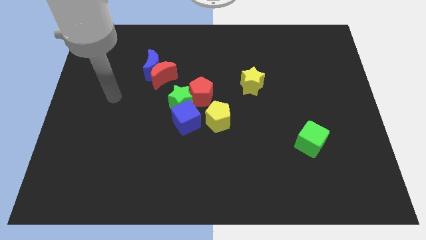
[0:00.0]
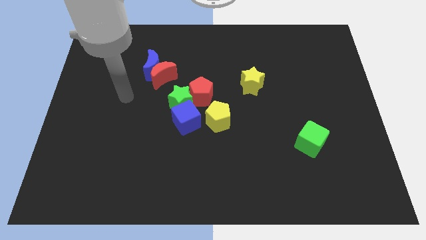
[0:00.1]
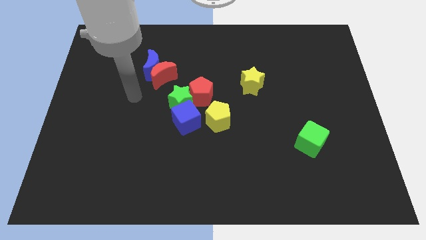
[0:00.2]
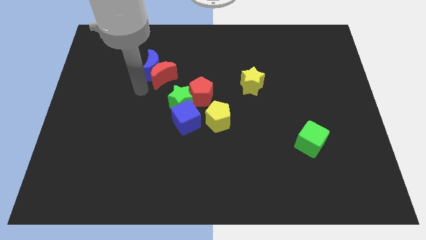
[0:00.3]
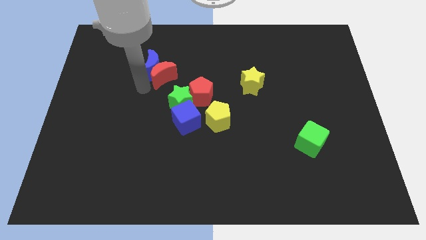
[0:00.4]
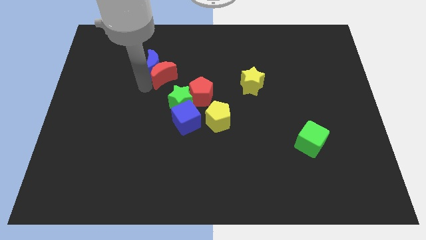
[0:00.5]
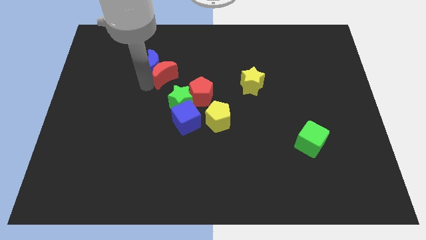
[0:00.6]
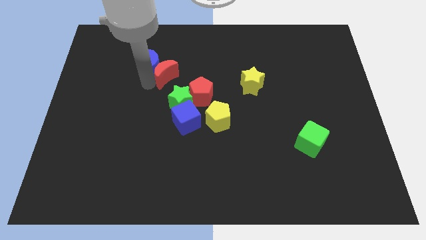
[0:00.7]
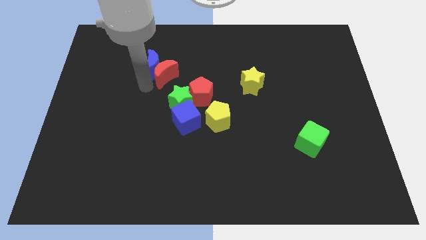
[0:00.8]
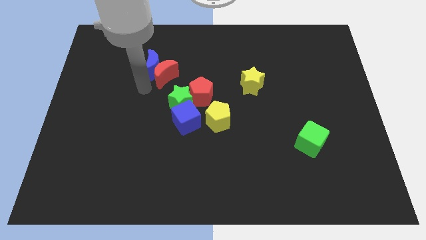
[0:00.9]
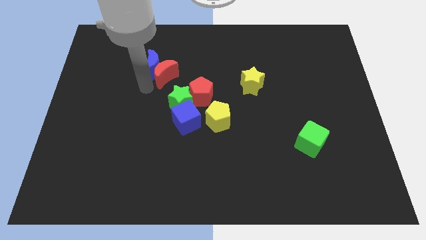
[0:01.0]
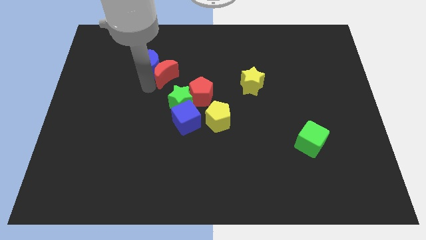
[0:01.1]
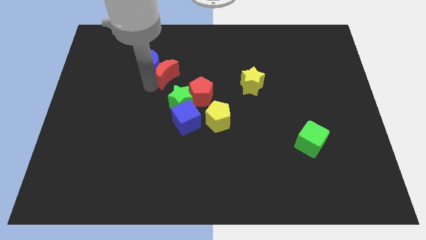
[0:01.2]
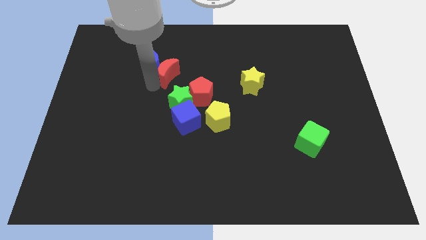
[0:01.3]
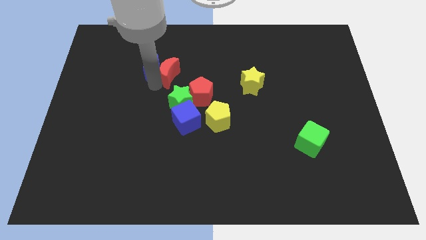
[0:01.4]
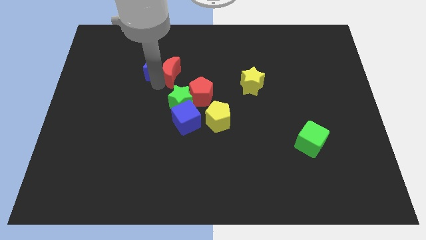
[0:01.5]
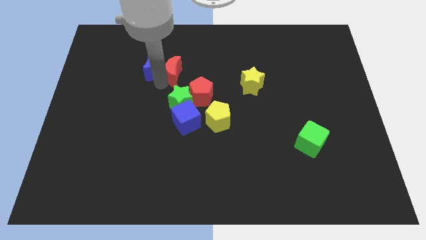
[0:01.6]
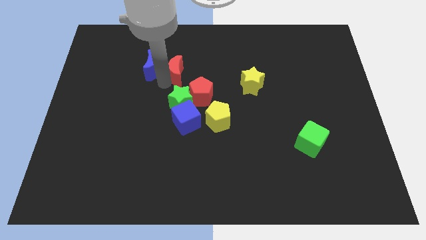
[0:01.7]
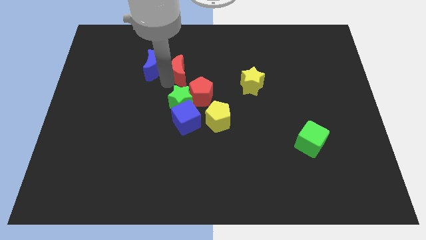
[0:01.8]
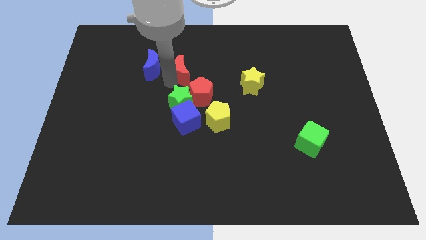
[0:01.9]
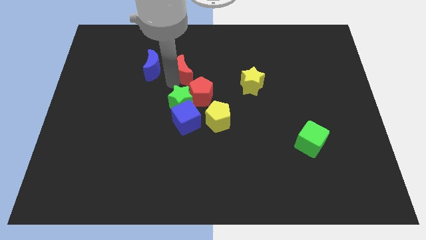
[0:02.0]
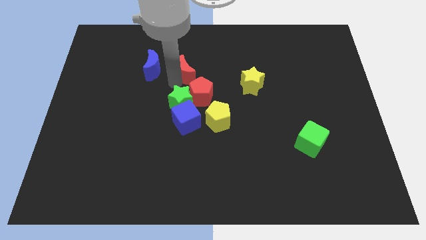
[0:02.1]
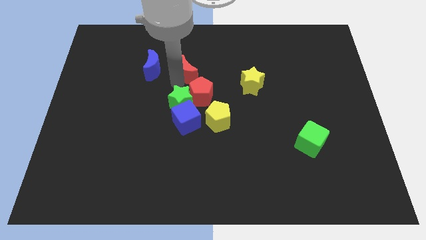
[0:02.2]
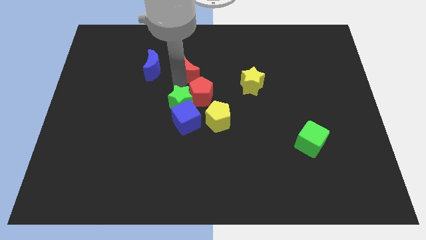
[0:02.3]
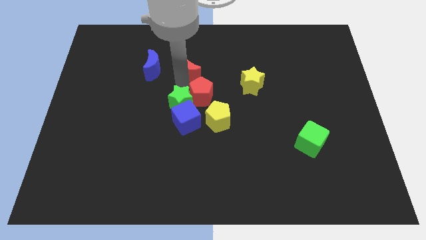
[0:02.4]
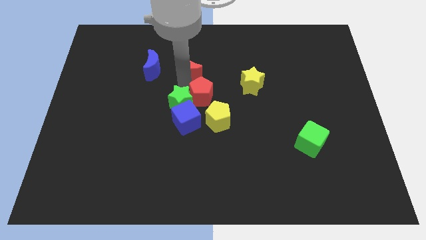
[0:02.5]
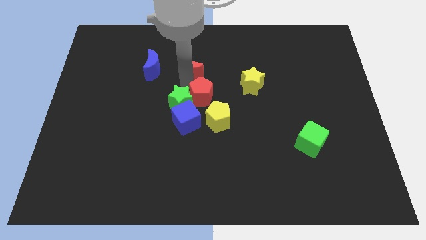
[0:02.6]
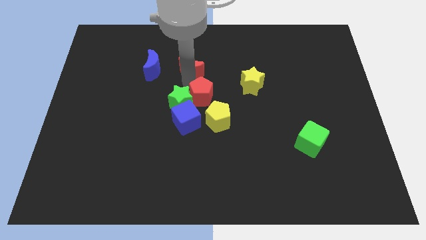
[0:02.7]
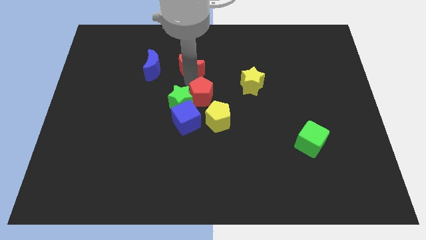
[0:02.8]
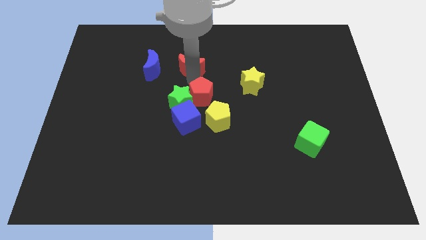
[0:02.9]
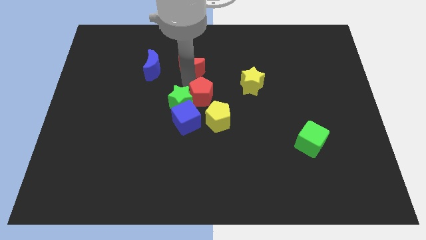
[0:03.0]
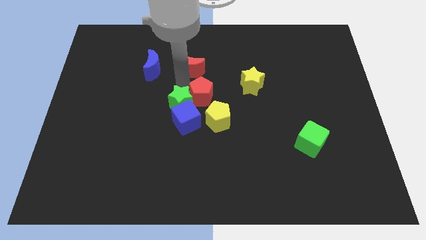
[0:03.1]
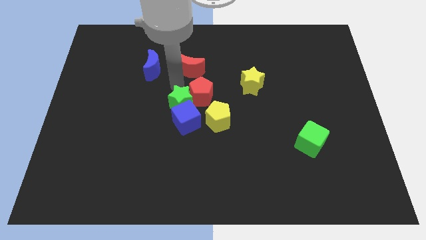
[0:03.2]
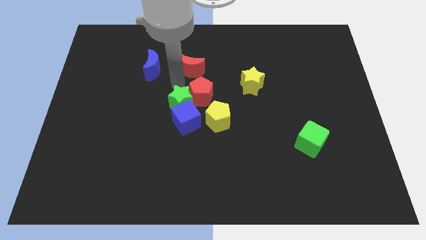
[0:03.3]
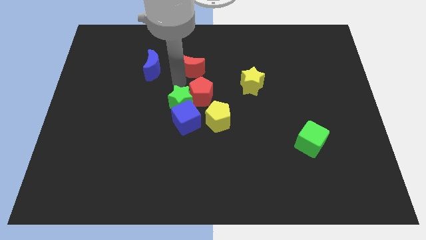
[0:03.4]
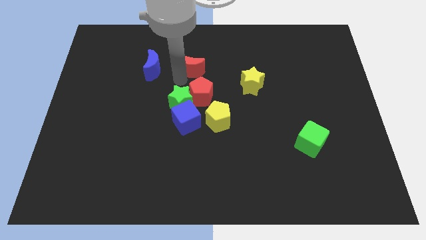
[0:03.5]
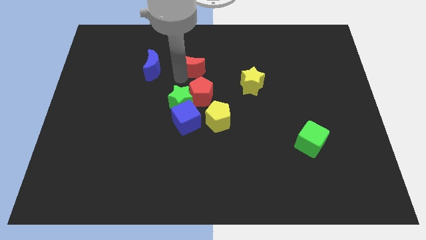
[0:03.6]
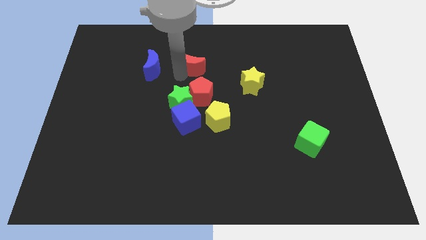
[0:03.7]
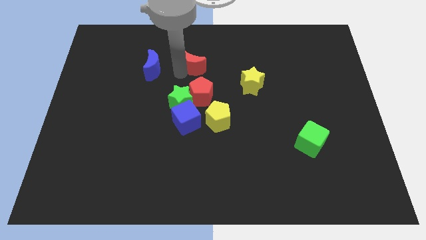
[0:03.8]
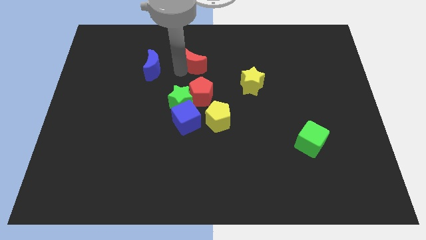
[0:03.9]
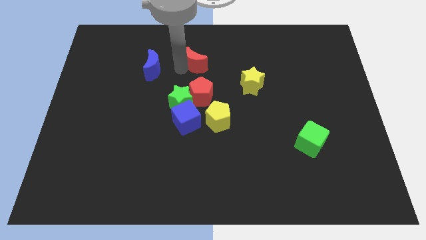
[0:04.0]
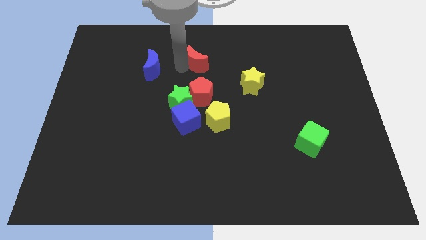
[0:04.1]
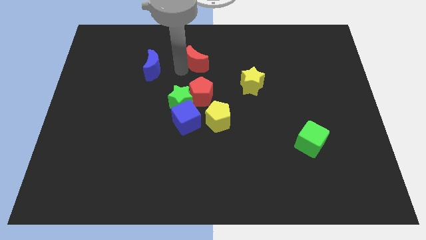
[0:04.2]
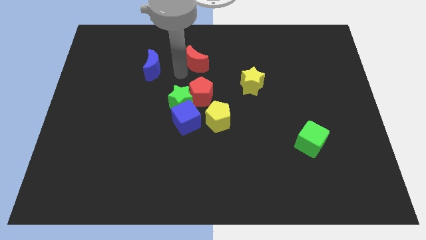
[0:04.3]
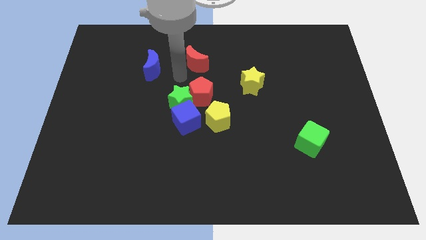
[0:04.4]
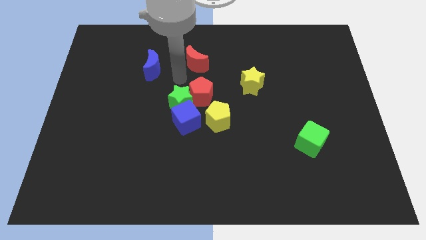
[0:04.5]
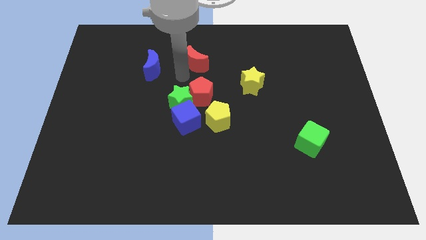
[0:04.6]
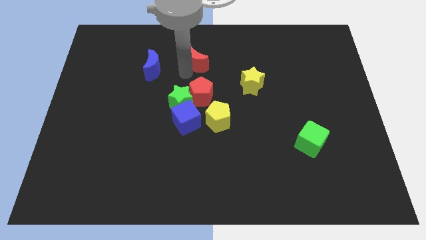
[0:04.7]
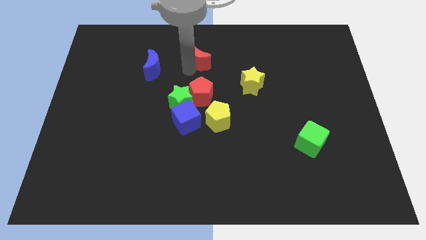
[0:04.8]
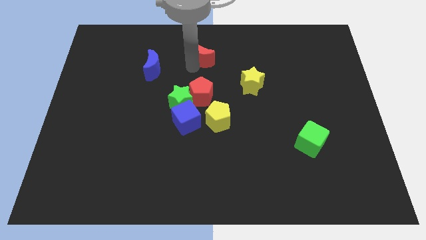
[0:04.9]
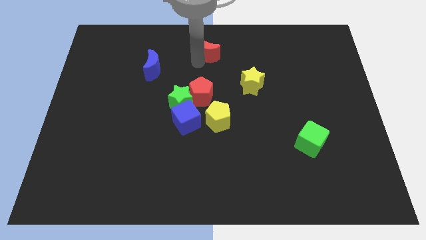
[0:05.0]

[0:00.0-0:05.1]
move the red moon to the top

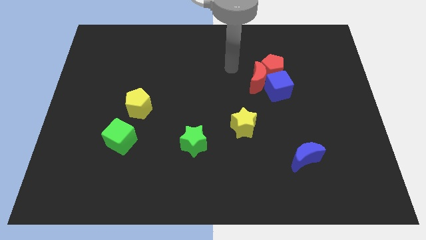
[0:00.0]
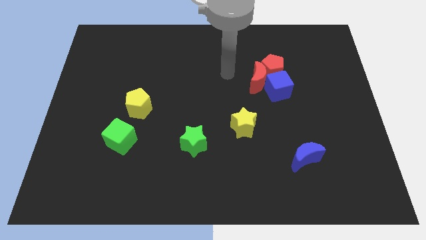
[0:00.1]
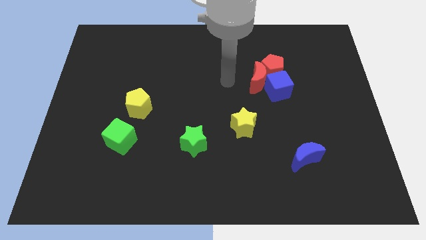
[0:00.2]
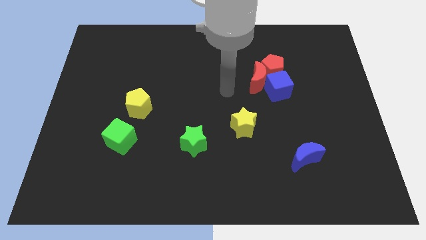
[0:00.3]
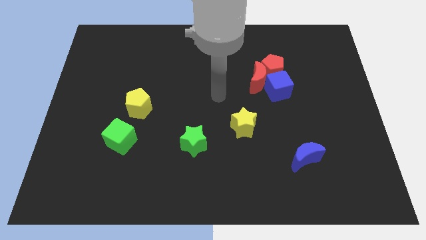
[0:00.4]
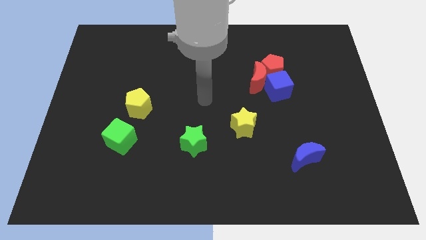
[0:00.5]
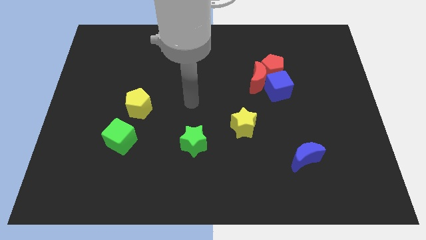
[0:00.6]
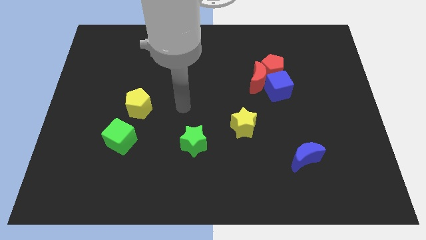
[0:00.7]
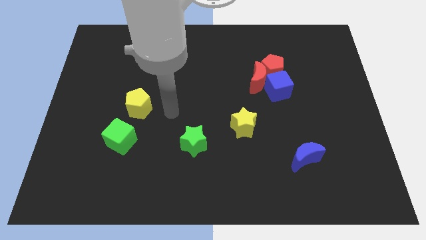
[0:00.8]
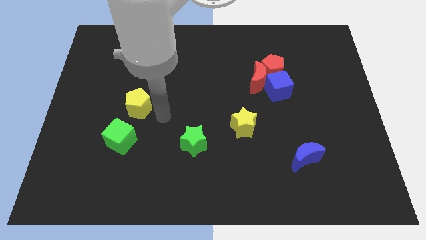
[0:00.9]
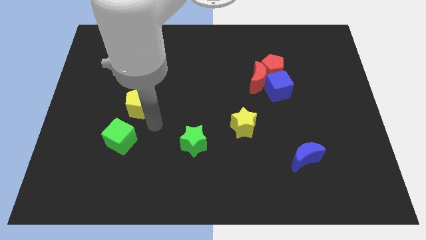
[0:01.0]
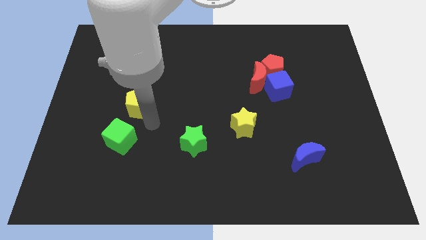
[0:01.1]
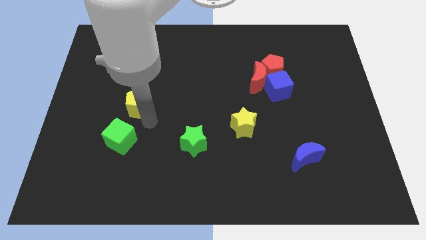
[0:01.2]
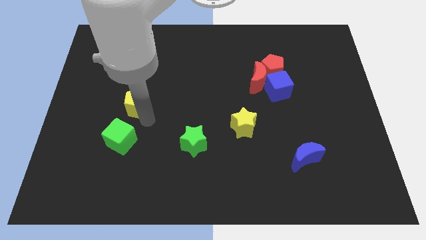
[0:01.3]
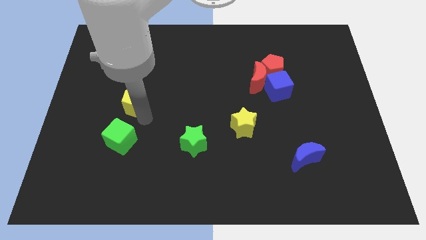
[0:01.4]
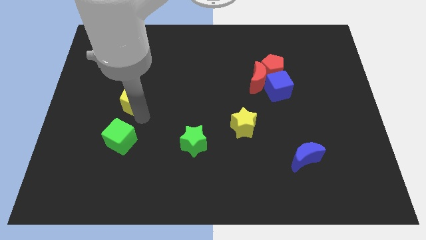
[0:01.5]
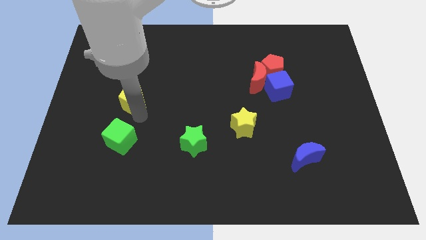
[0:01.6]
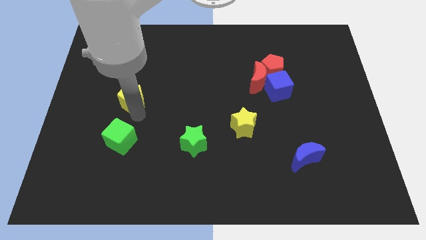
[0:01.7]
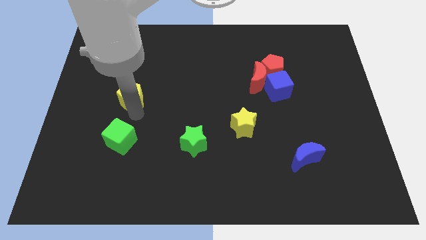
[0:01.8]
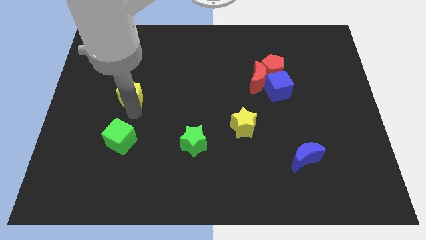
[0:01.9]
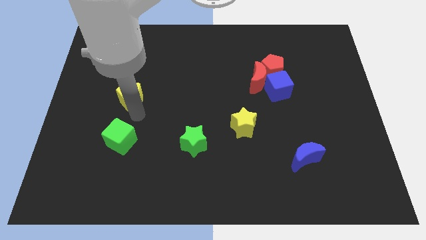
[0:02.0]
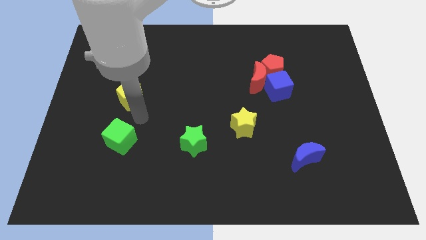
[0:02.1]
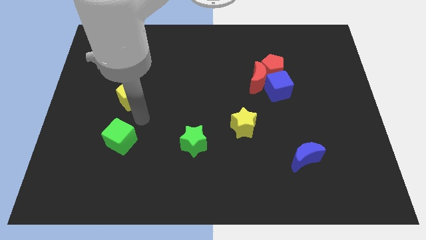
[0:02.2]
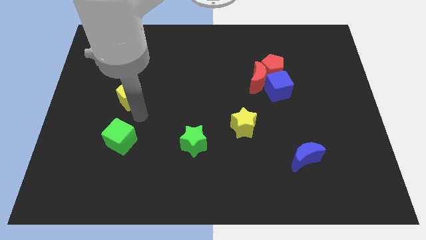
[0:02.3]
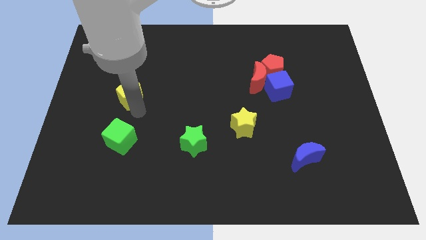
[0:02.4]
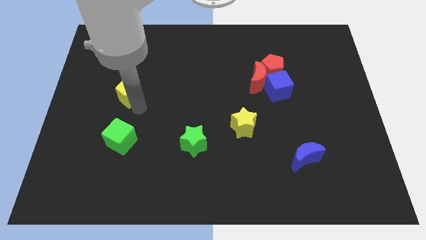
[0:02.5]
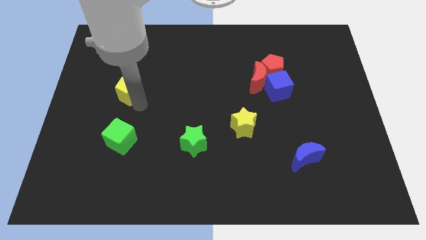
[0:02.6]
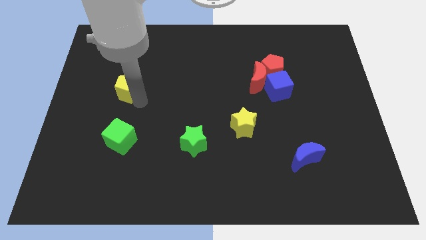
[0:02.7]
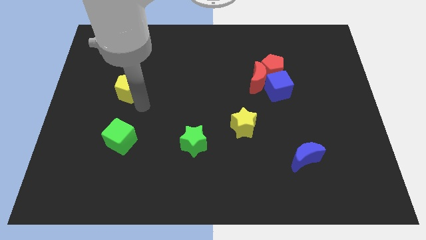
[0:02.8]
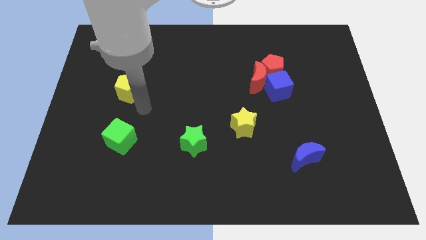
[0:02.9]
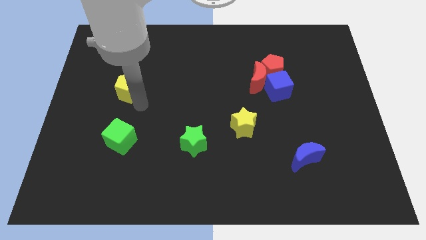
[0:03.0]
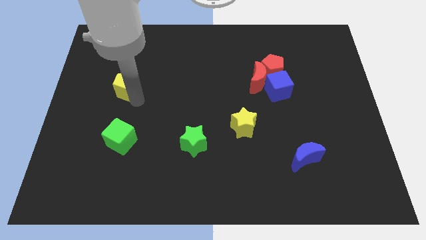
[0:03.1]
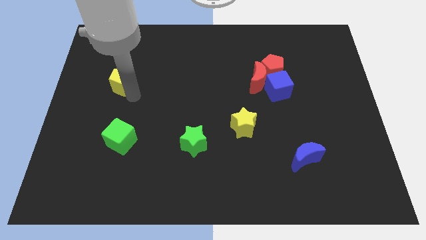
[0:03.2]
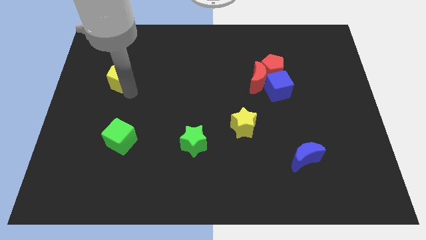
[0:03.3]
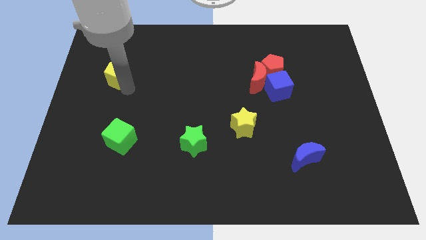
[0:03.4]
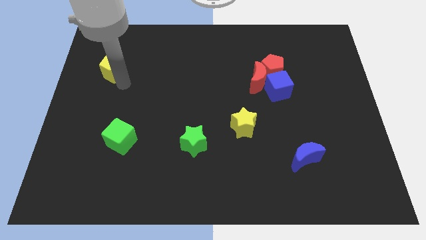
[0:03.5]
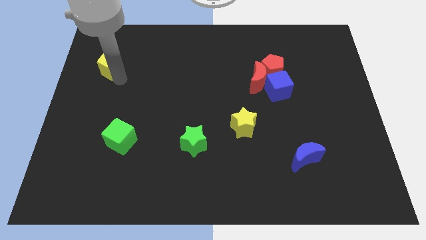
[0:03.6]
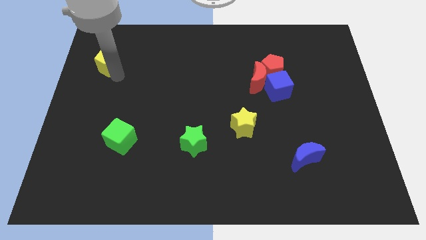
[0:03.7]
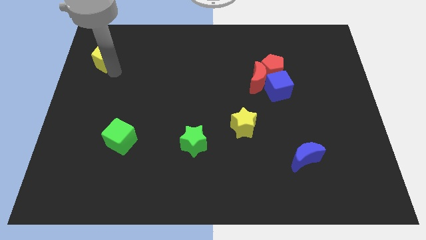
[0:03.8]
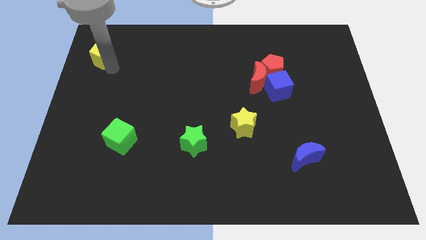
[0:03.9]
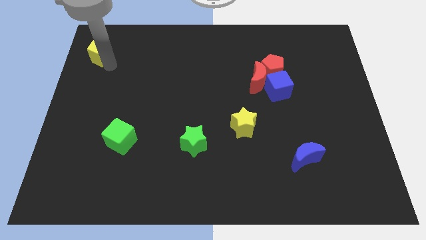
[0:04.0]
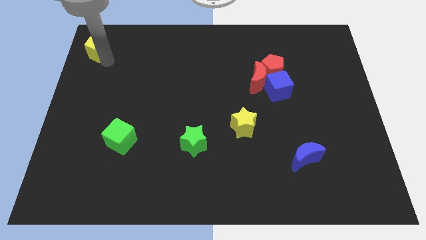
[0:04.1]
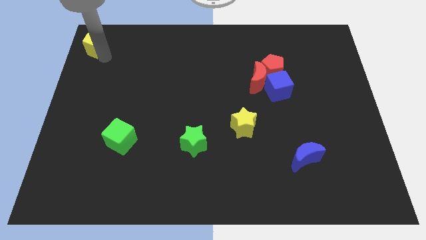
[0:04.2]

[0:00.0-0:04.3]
put the yellow pentagon to the top left of the board
